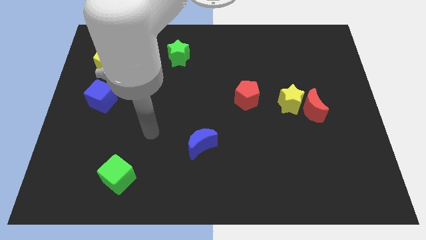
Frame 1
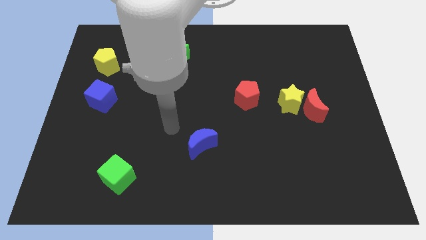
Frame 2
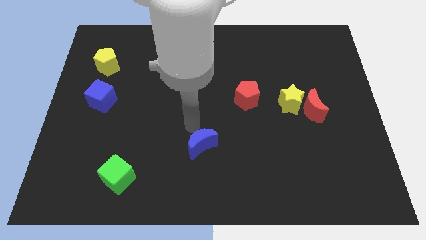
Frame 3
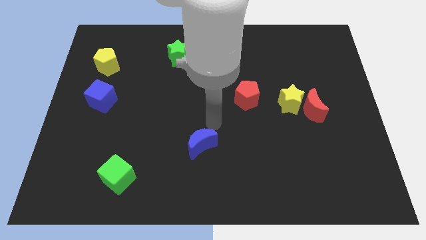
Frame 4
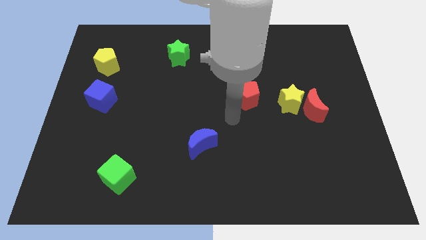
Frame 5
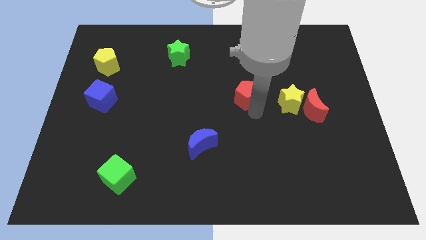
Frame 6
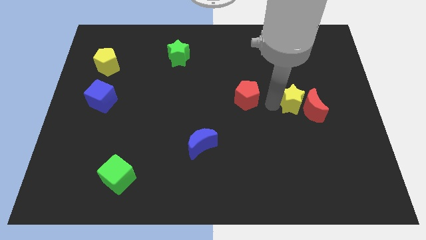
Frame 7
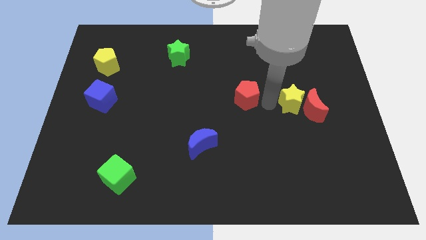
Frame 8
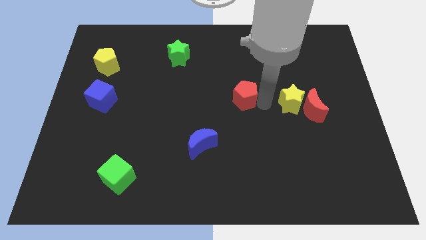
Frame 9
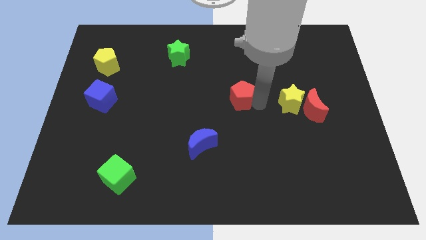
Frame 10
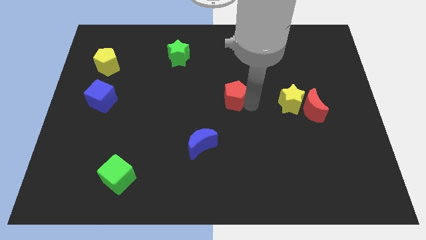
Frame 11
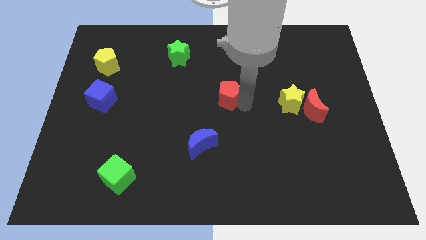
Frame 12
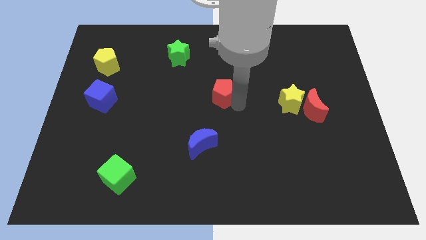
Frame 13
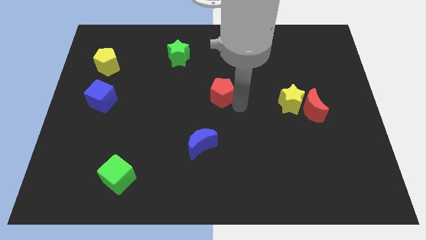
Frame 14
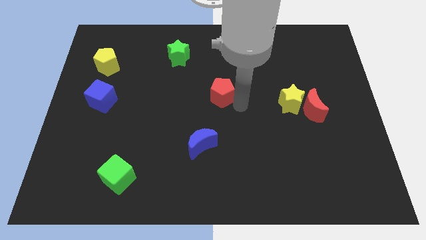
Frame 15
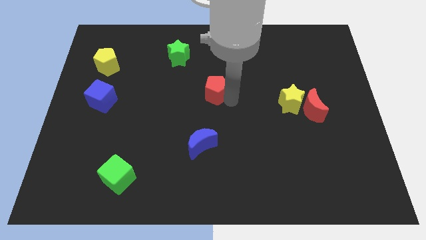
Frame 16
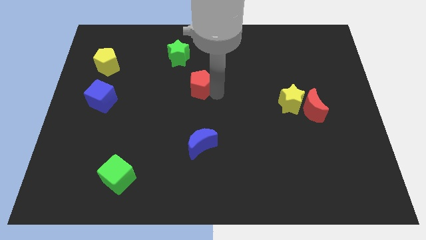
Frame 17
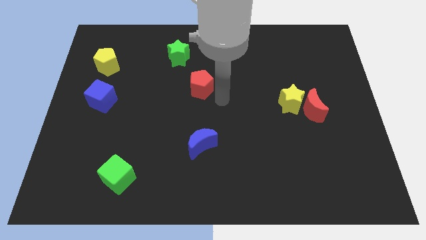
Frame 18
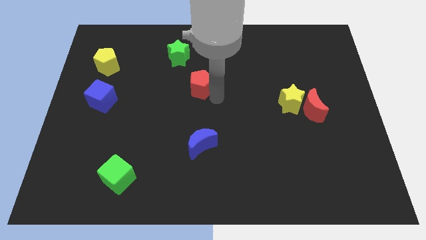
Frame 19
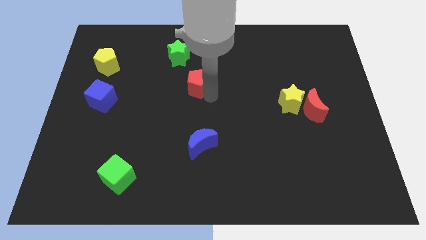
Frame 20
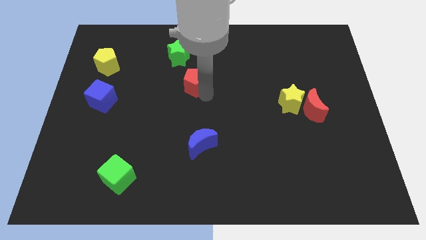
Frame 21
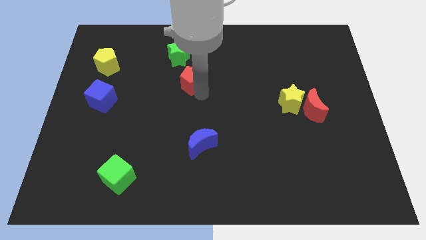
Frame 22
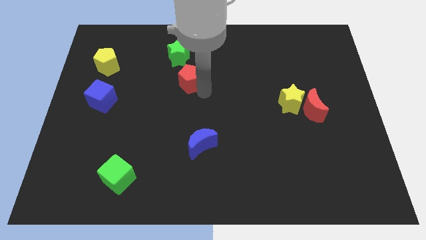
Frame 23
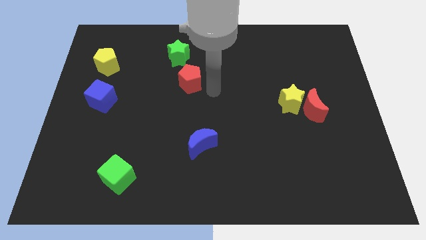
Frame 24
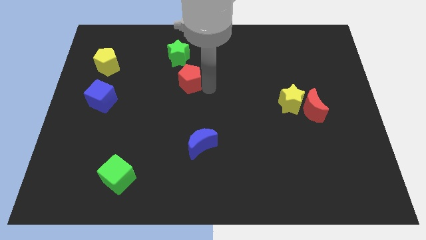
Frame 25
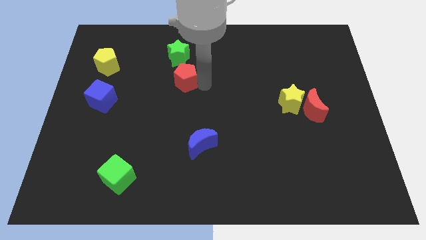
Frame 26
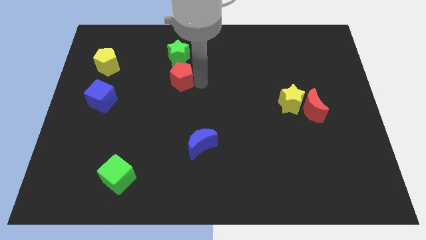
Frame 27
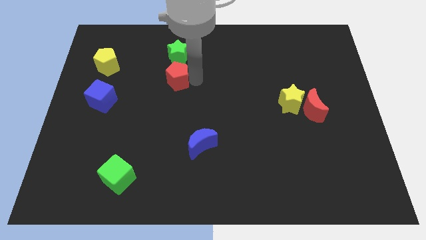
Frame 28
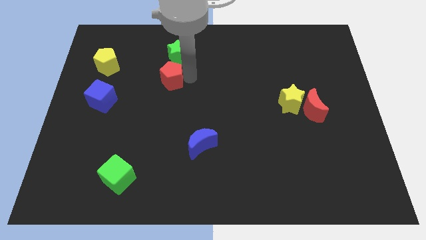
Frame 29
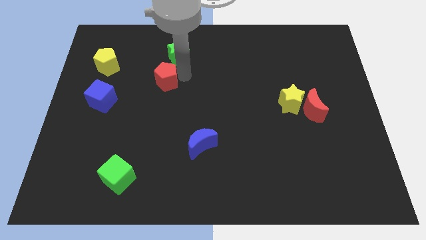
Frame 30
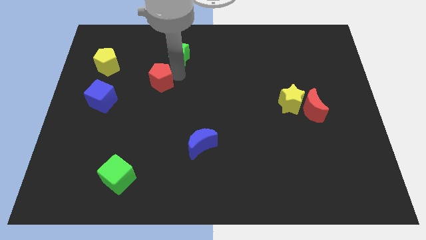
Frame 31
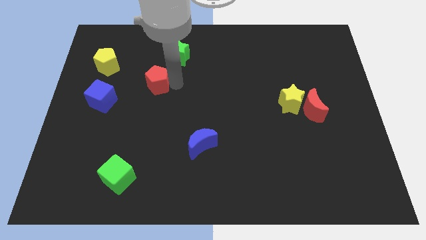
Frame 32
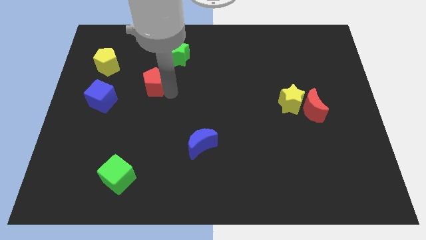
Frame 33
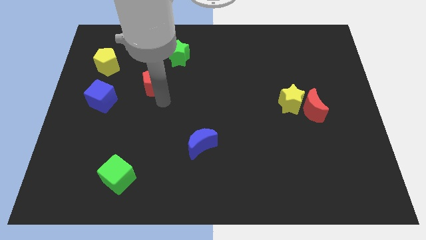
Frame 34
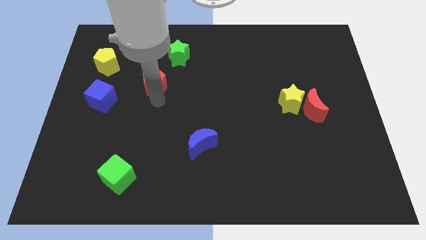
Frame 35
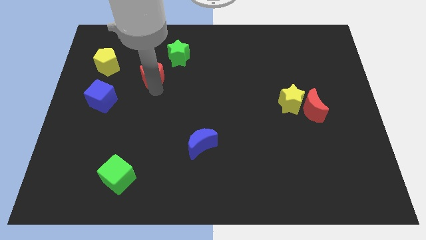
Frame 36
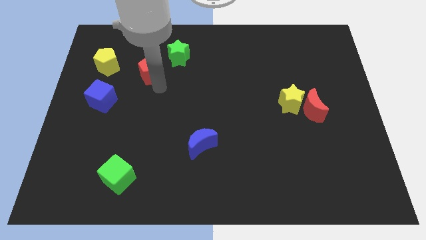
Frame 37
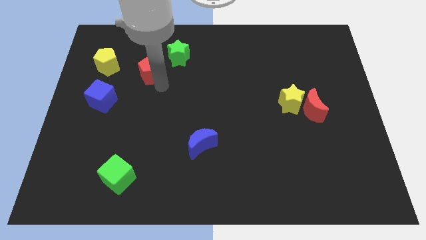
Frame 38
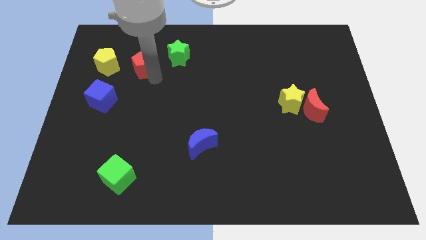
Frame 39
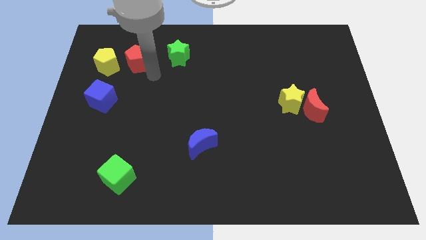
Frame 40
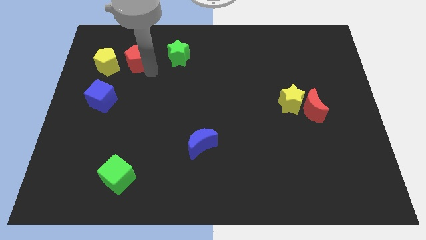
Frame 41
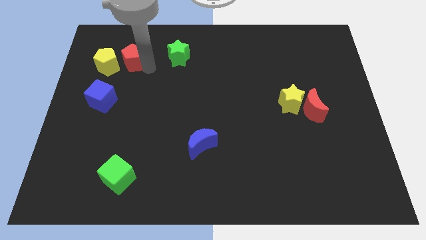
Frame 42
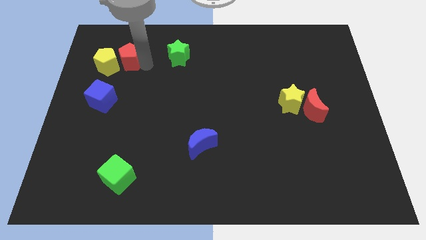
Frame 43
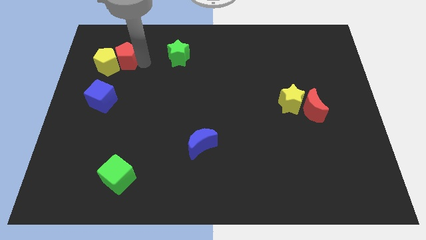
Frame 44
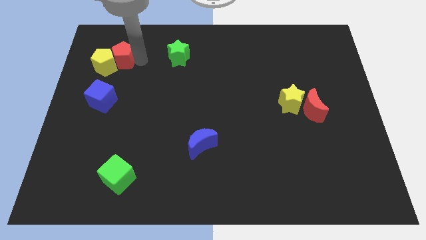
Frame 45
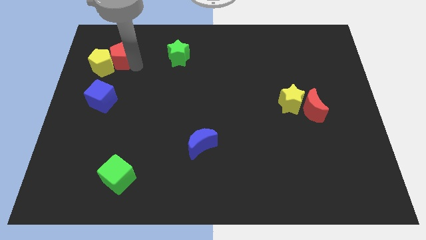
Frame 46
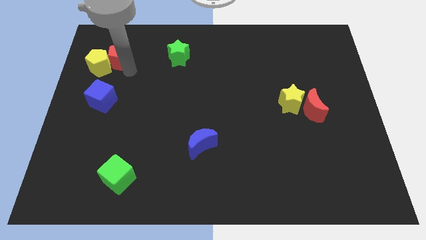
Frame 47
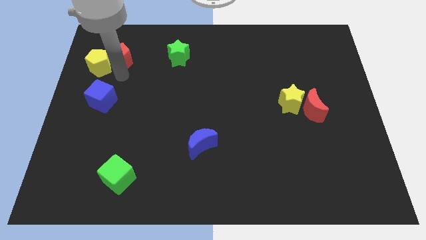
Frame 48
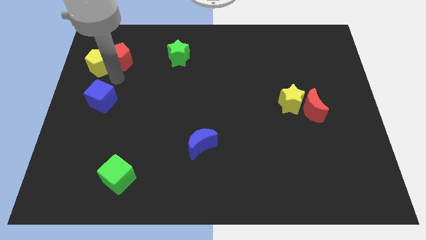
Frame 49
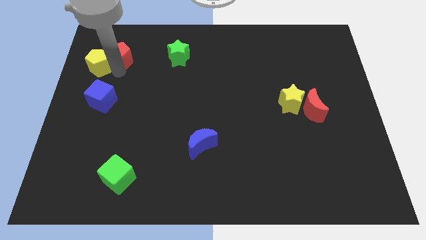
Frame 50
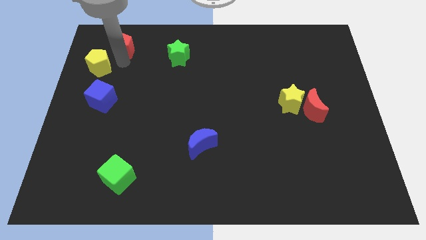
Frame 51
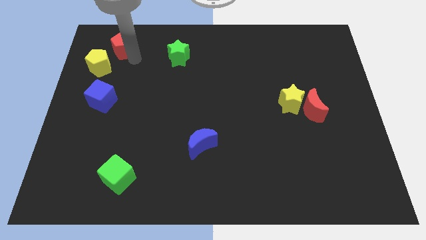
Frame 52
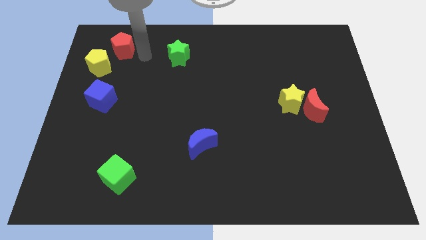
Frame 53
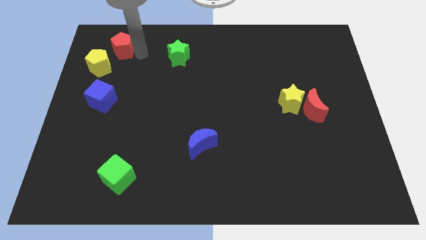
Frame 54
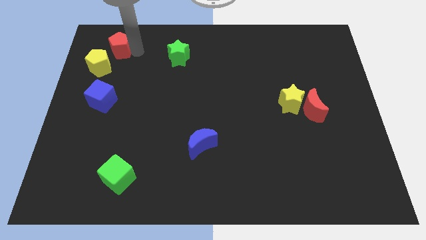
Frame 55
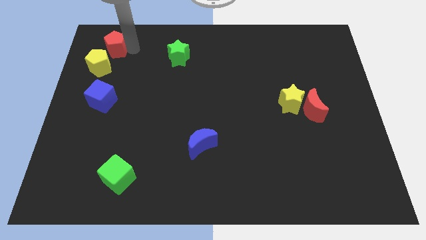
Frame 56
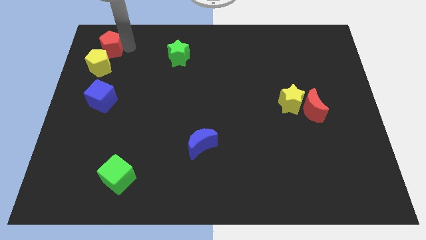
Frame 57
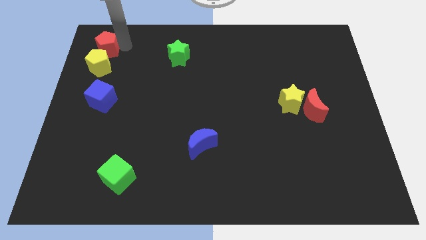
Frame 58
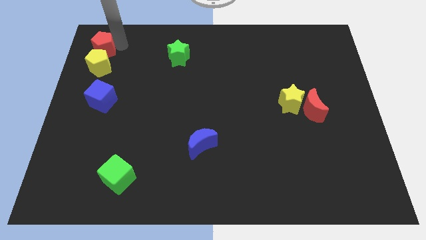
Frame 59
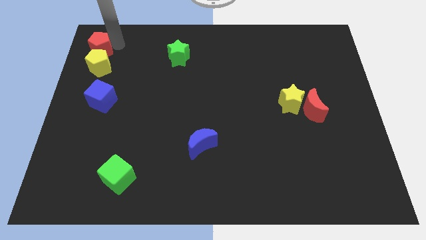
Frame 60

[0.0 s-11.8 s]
put the red pentagon to the upper left corner
